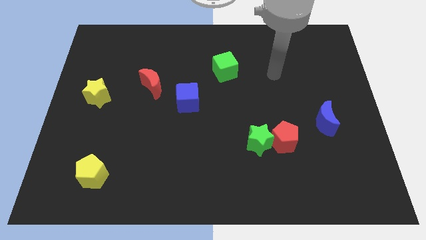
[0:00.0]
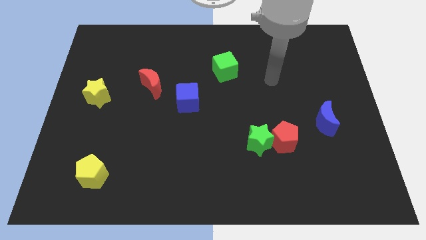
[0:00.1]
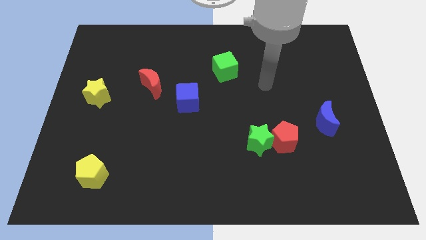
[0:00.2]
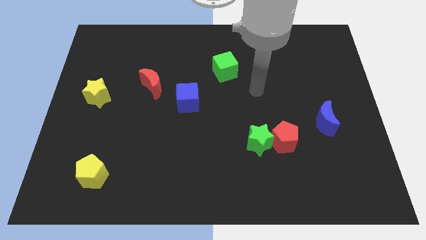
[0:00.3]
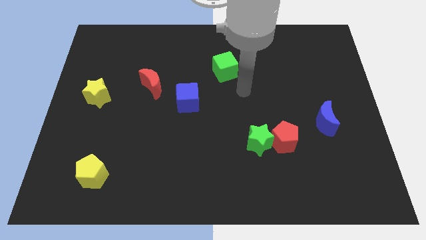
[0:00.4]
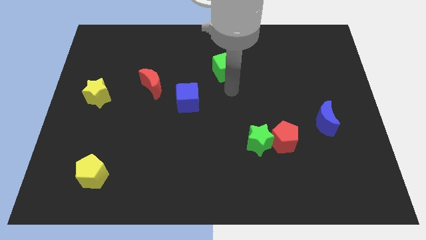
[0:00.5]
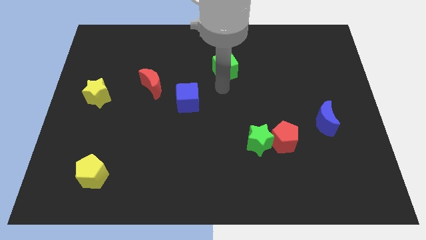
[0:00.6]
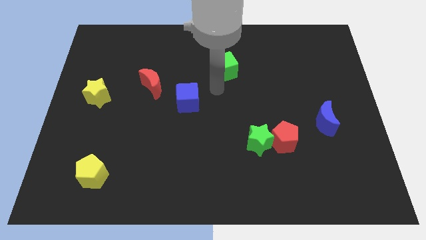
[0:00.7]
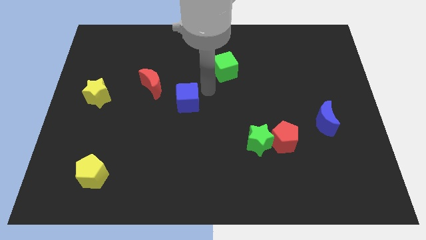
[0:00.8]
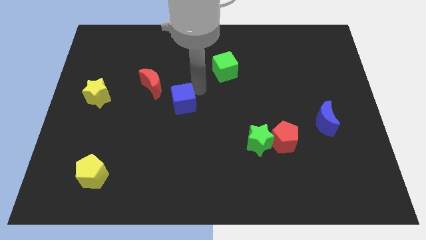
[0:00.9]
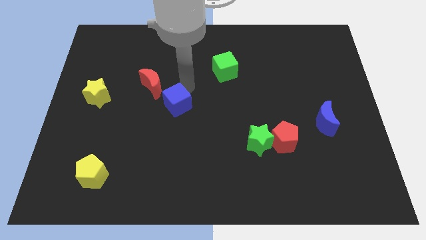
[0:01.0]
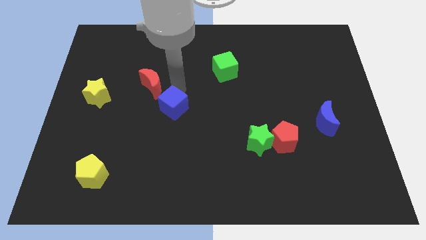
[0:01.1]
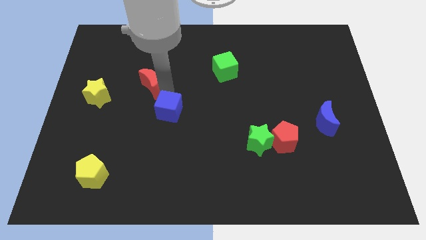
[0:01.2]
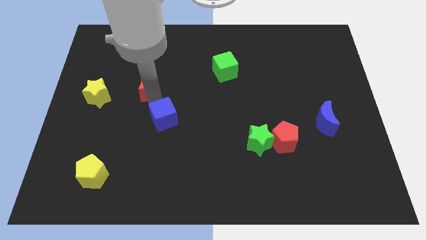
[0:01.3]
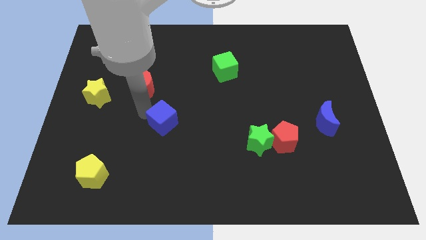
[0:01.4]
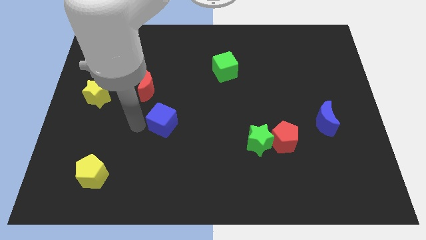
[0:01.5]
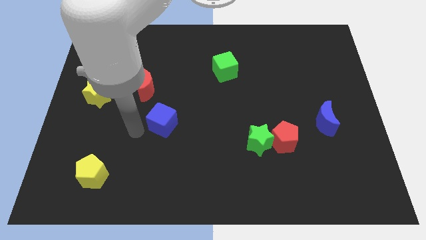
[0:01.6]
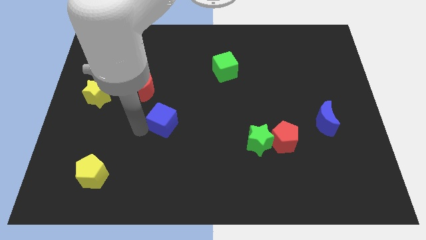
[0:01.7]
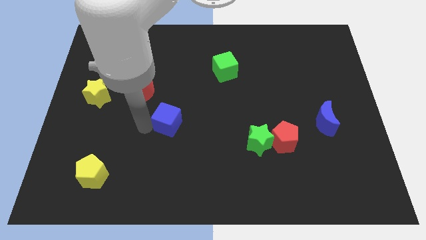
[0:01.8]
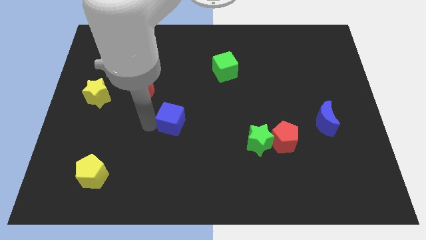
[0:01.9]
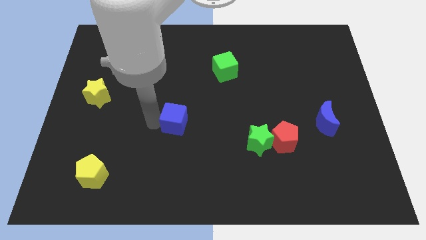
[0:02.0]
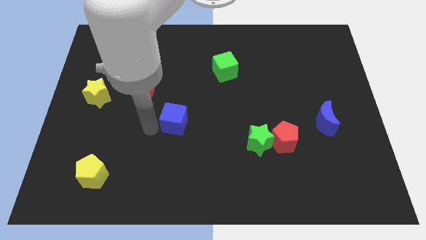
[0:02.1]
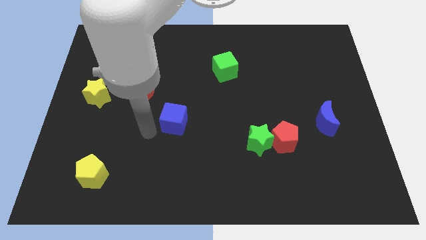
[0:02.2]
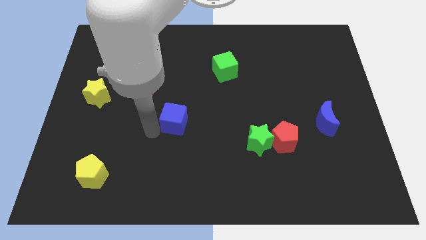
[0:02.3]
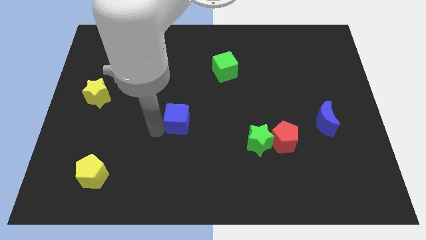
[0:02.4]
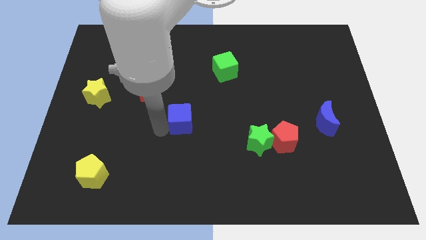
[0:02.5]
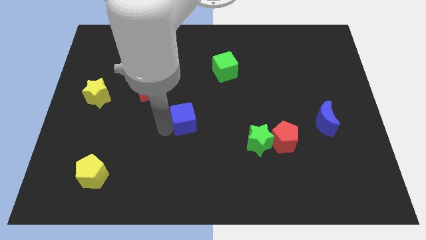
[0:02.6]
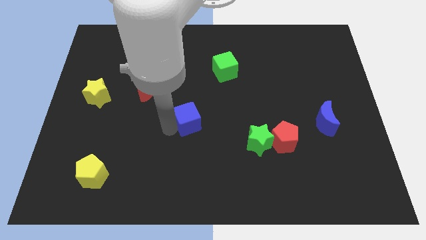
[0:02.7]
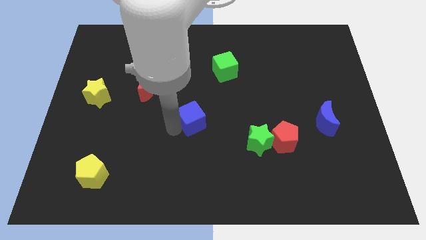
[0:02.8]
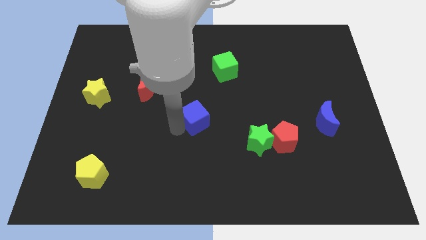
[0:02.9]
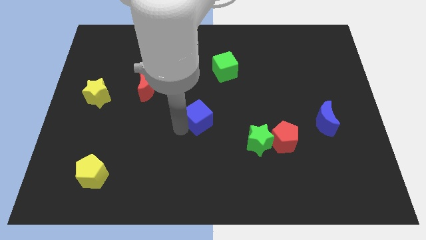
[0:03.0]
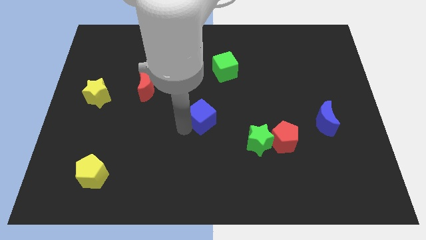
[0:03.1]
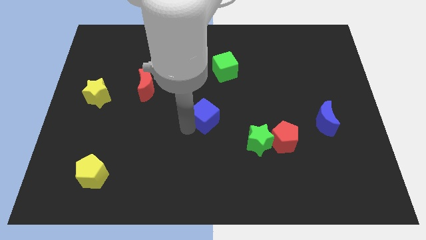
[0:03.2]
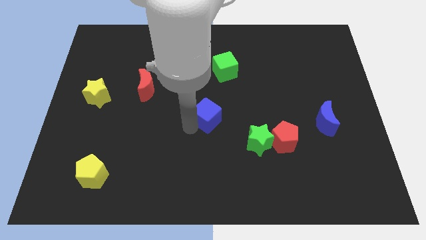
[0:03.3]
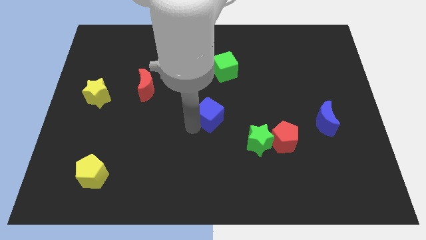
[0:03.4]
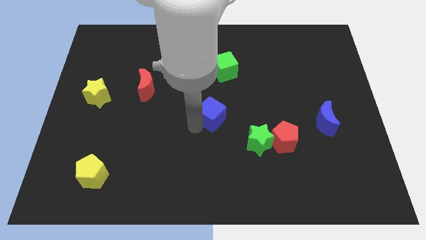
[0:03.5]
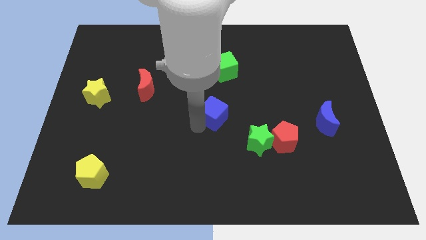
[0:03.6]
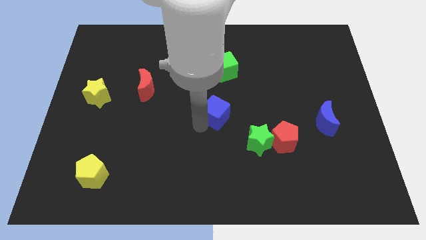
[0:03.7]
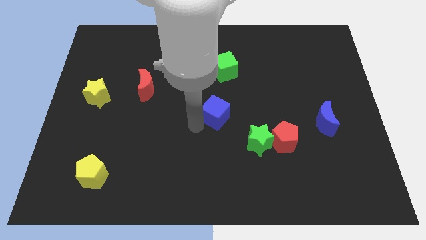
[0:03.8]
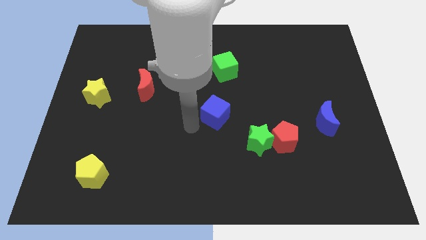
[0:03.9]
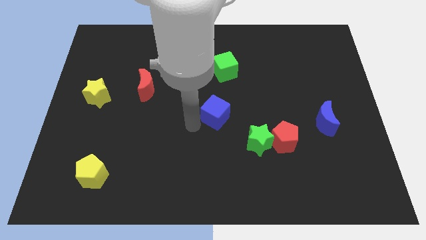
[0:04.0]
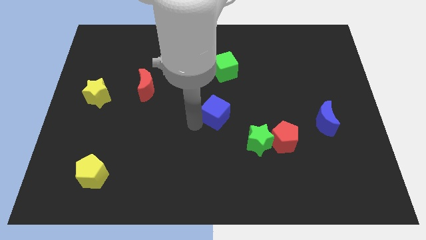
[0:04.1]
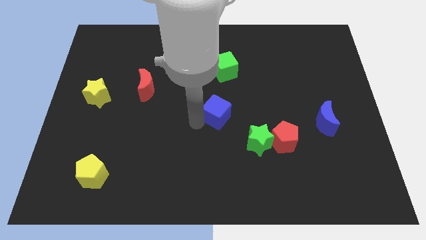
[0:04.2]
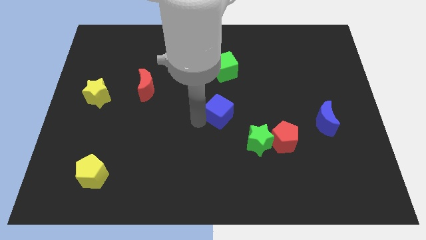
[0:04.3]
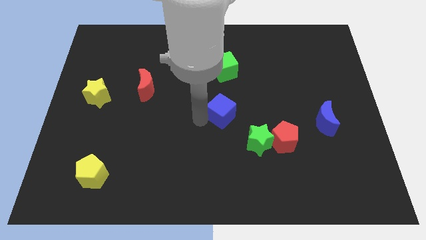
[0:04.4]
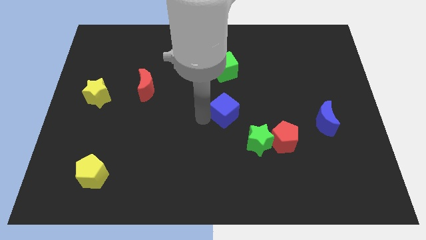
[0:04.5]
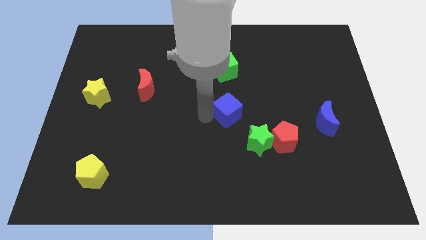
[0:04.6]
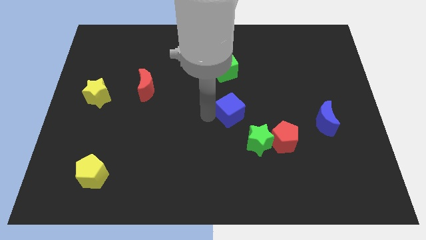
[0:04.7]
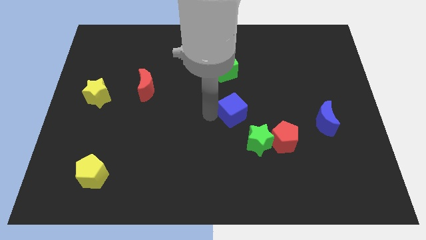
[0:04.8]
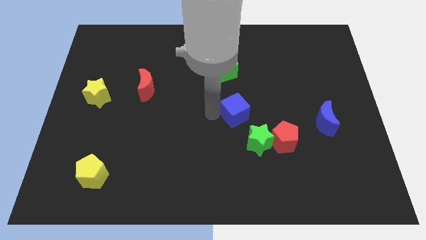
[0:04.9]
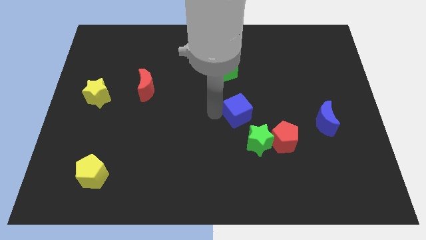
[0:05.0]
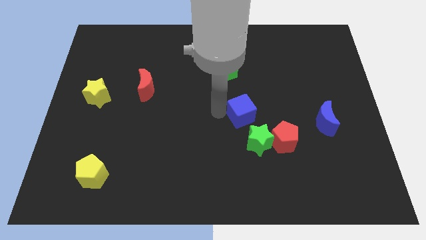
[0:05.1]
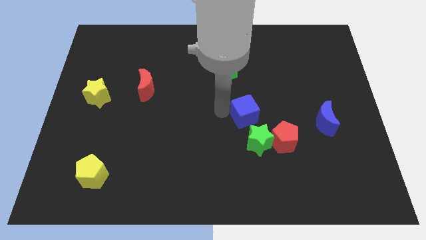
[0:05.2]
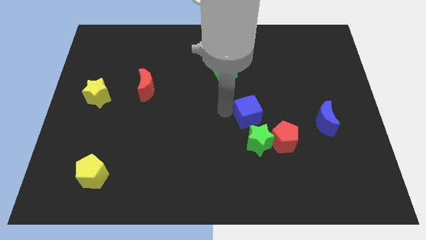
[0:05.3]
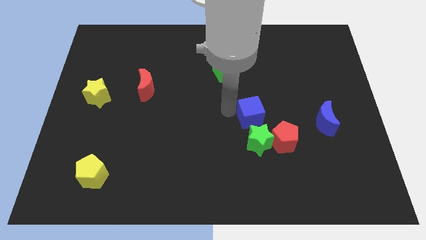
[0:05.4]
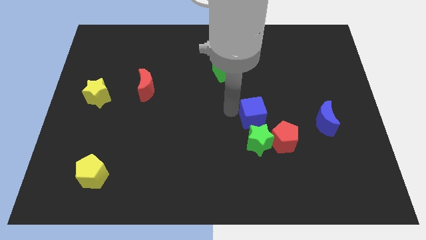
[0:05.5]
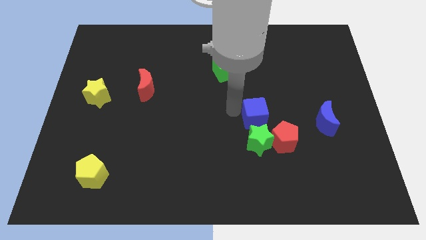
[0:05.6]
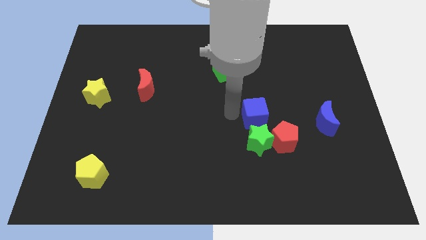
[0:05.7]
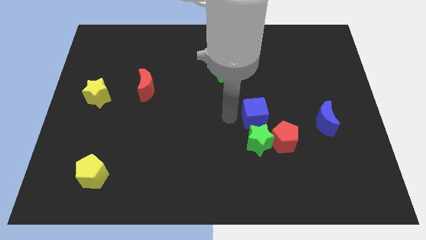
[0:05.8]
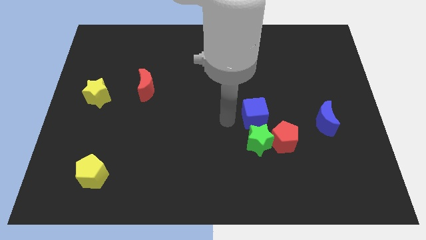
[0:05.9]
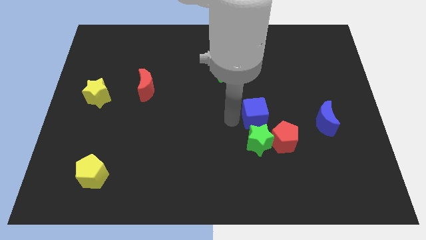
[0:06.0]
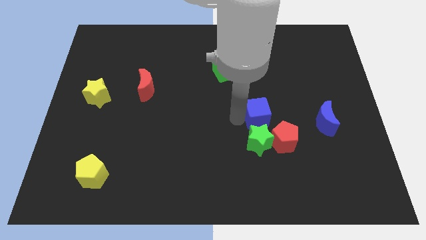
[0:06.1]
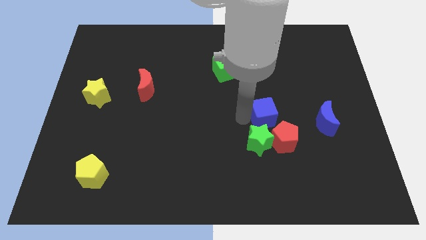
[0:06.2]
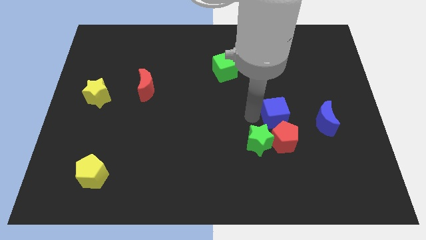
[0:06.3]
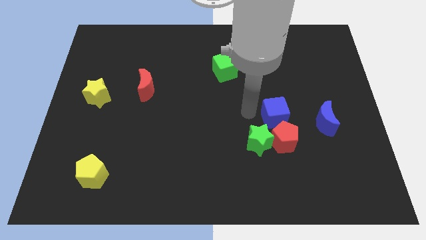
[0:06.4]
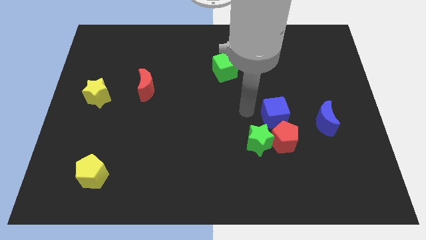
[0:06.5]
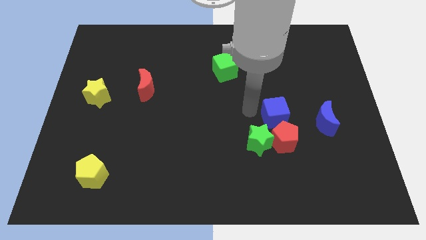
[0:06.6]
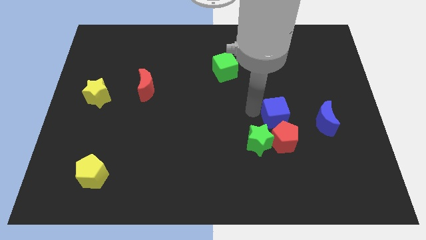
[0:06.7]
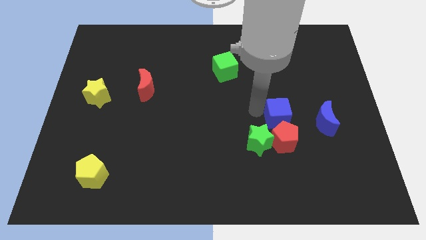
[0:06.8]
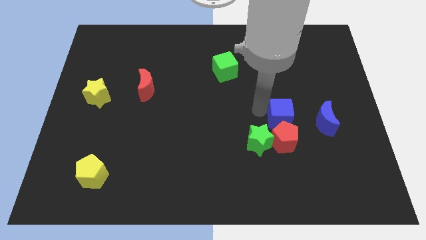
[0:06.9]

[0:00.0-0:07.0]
put the blue cube to the top right side of the red pentagon

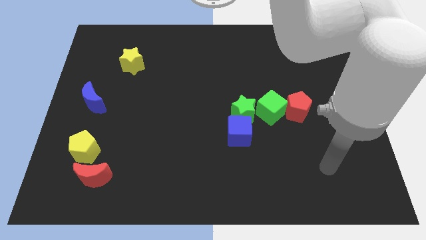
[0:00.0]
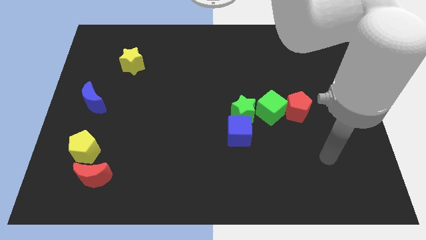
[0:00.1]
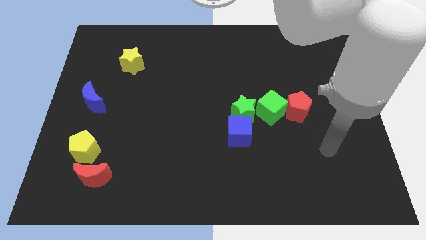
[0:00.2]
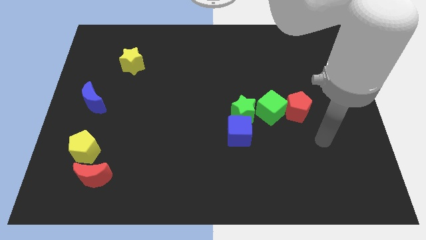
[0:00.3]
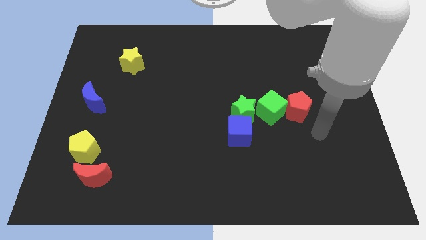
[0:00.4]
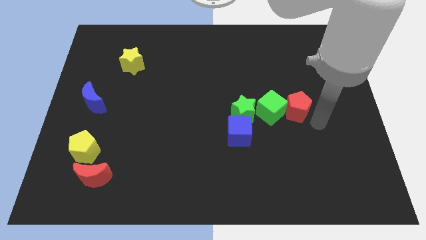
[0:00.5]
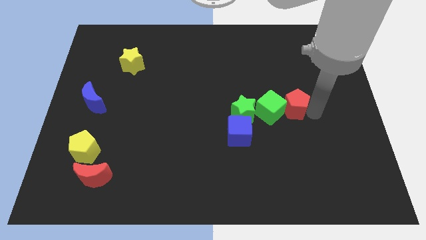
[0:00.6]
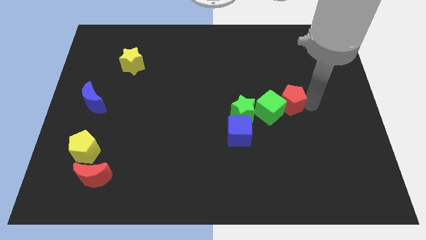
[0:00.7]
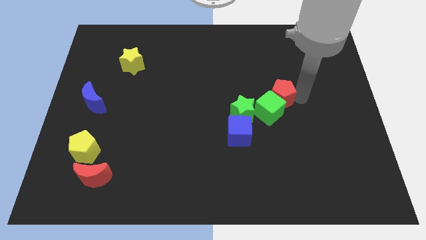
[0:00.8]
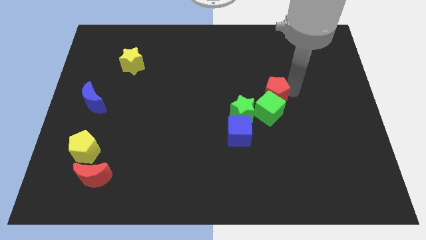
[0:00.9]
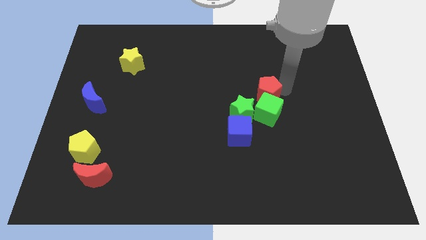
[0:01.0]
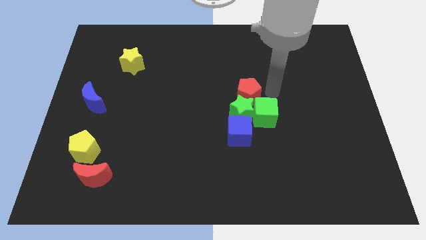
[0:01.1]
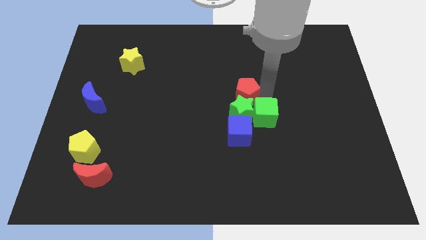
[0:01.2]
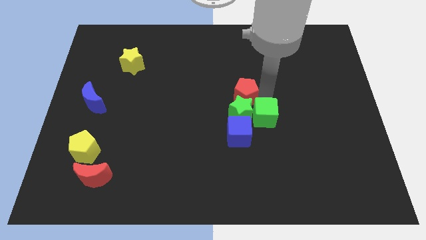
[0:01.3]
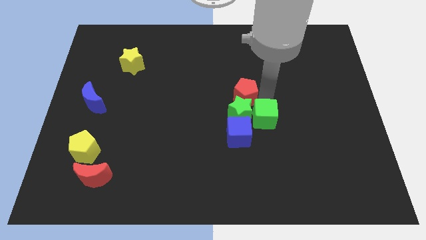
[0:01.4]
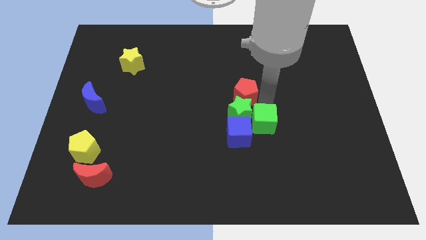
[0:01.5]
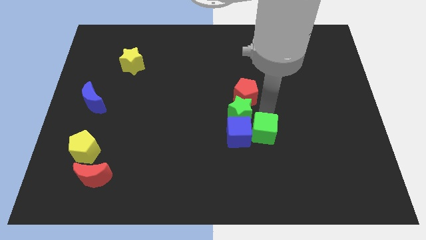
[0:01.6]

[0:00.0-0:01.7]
put the green cube below the green star
